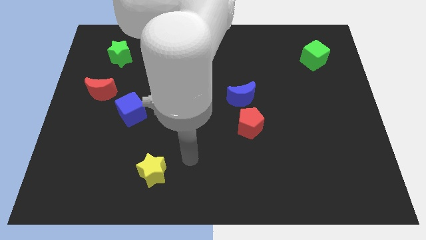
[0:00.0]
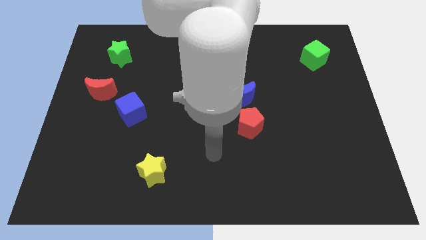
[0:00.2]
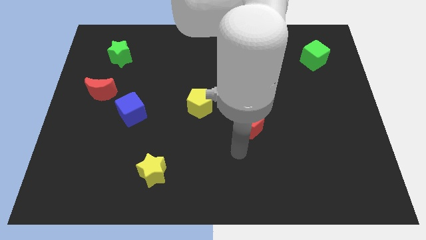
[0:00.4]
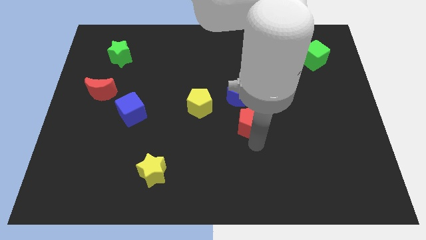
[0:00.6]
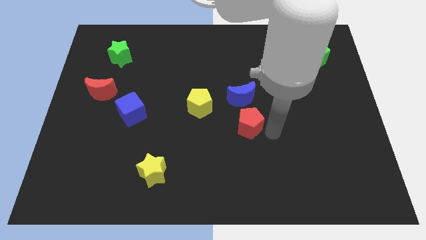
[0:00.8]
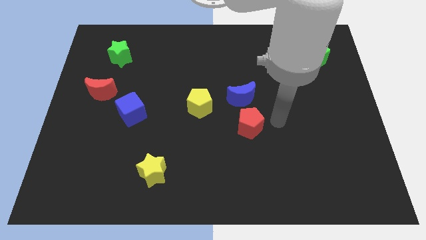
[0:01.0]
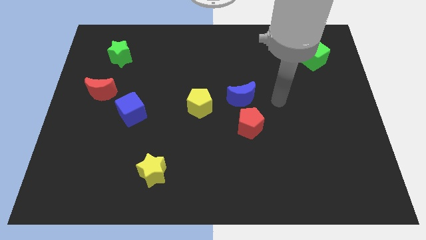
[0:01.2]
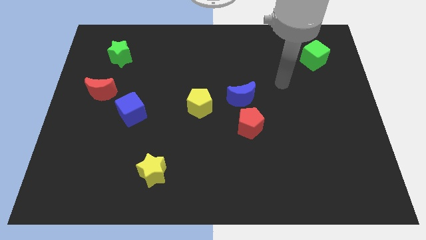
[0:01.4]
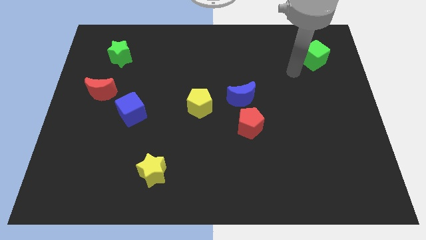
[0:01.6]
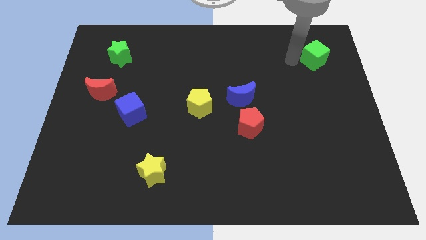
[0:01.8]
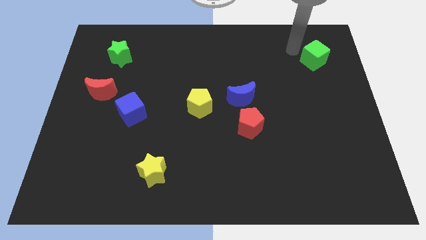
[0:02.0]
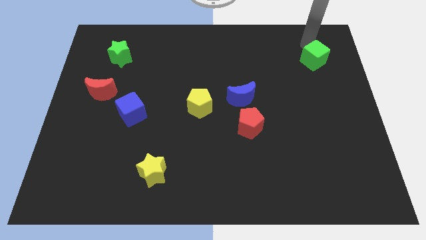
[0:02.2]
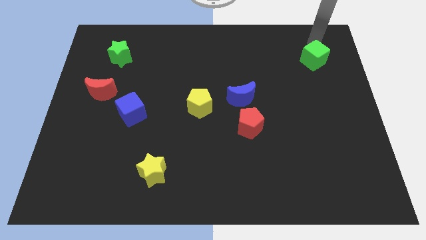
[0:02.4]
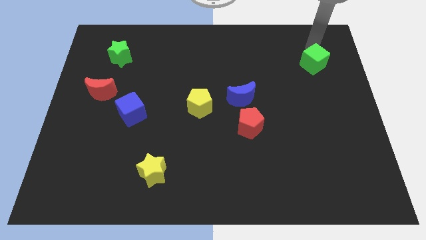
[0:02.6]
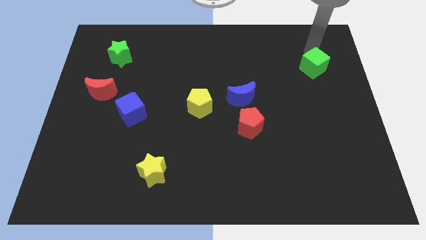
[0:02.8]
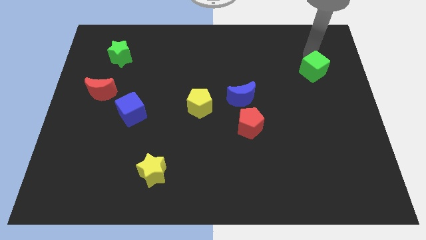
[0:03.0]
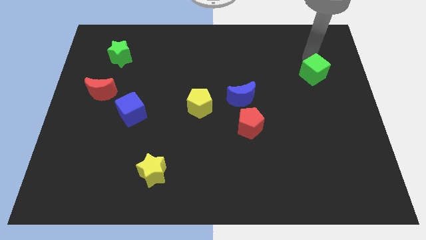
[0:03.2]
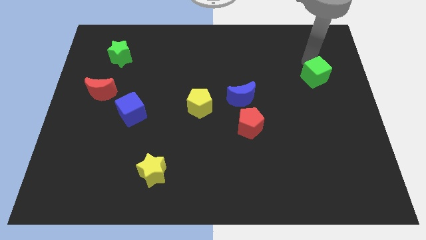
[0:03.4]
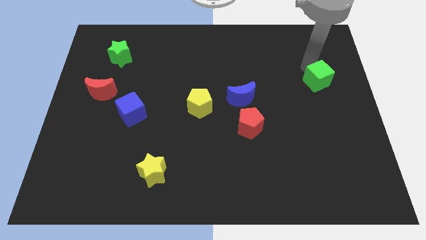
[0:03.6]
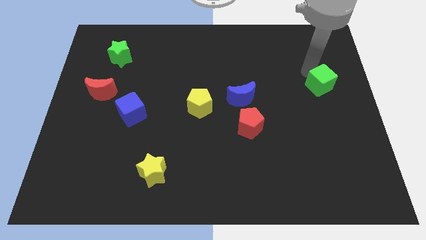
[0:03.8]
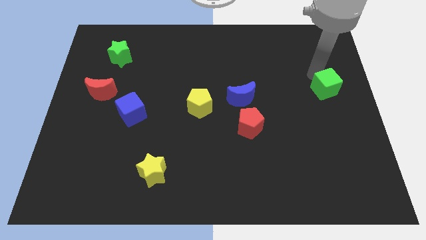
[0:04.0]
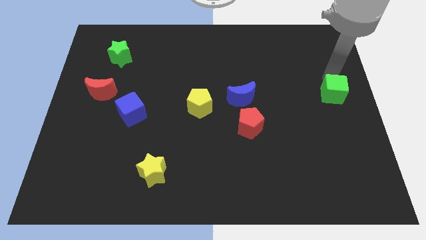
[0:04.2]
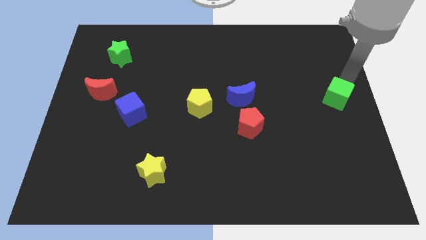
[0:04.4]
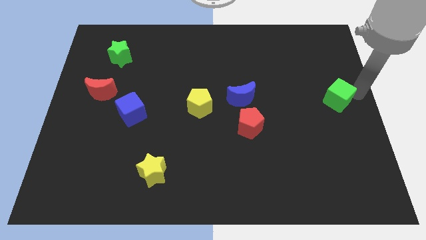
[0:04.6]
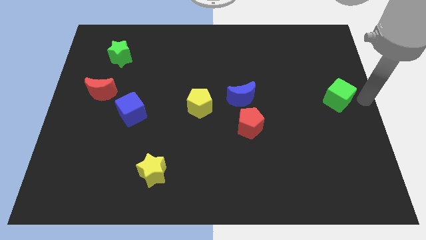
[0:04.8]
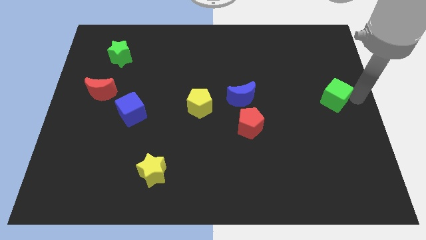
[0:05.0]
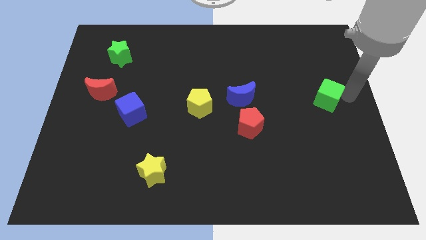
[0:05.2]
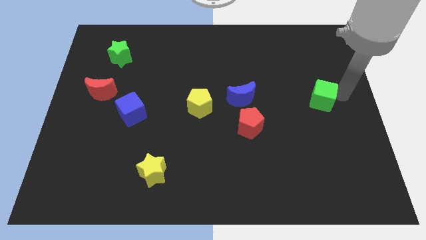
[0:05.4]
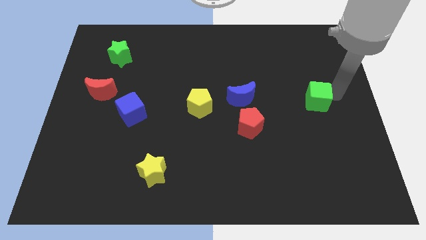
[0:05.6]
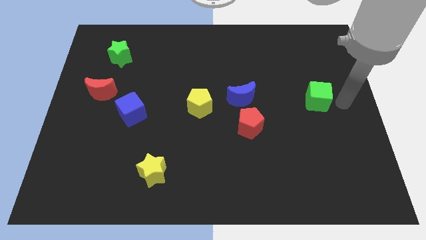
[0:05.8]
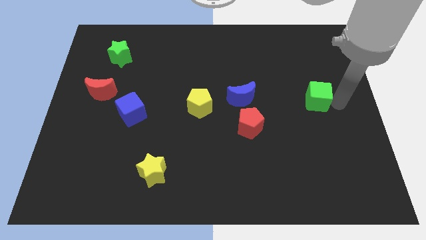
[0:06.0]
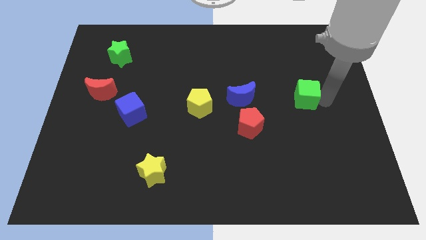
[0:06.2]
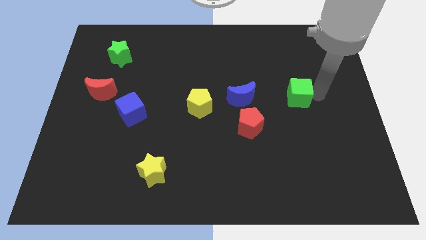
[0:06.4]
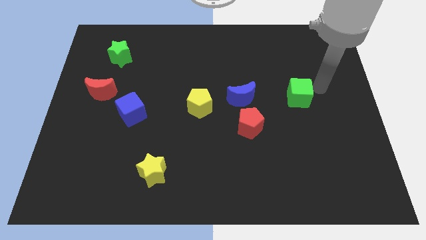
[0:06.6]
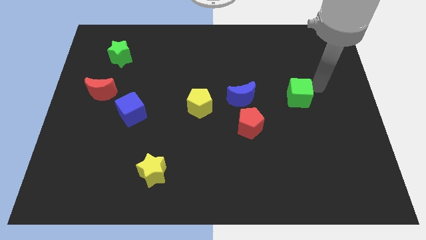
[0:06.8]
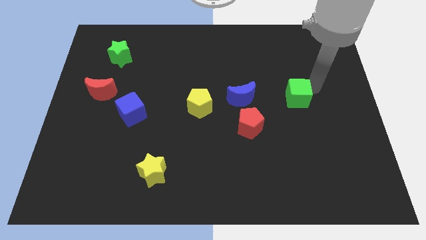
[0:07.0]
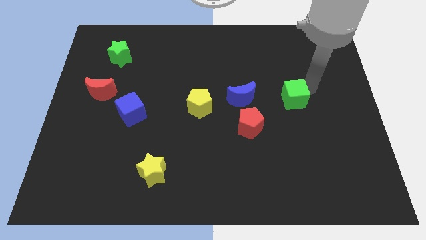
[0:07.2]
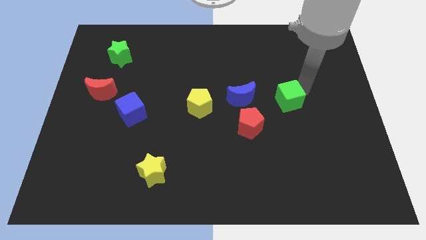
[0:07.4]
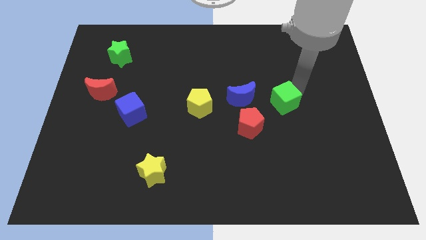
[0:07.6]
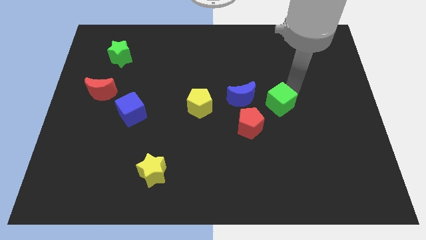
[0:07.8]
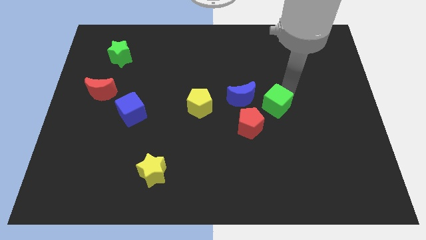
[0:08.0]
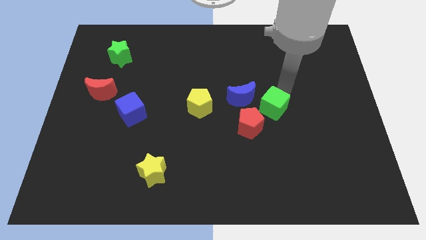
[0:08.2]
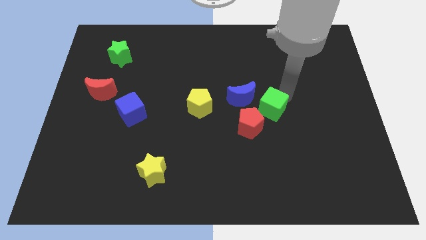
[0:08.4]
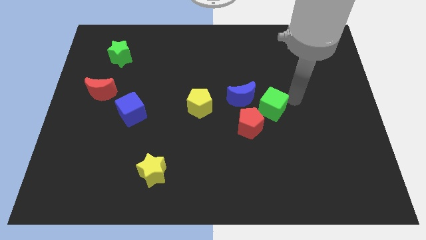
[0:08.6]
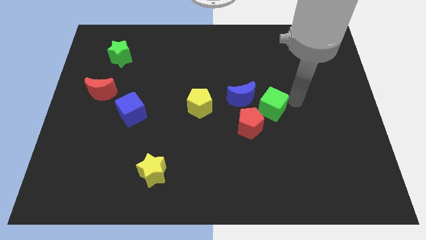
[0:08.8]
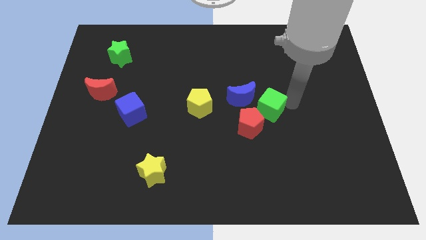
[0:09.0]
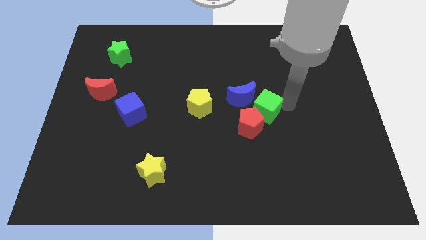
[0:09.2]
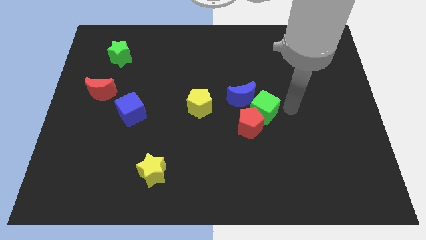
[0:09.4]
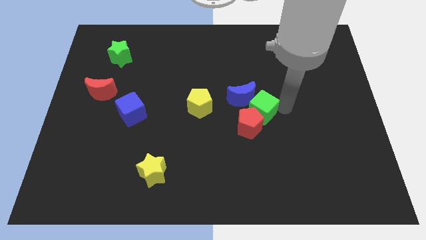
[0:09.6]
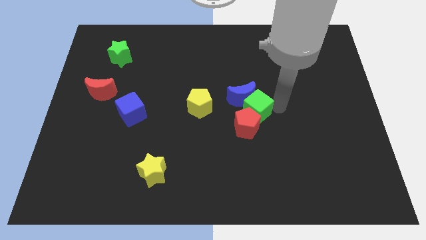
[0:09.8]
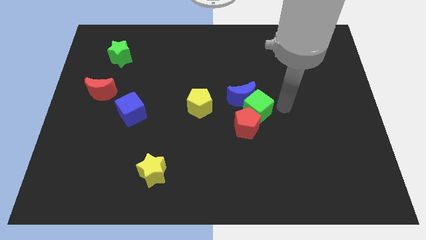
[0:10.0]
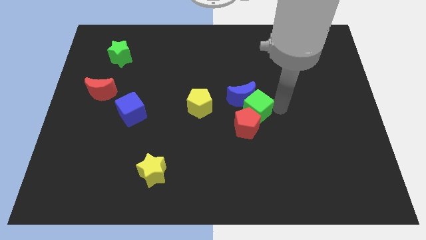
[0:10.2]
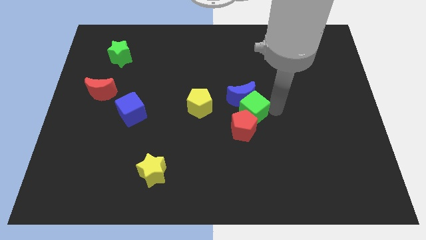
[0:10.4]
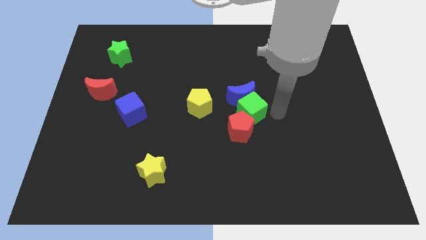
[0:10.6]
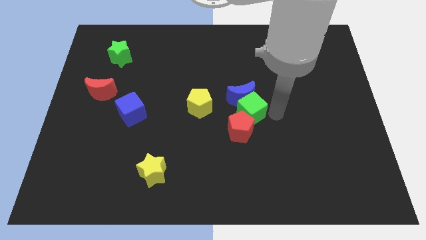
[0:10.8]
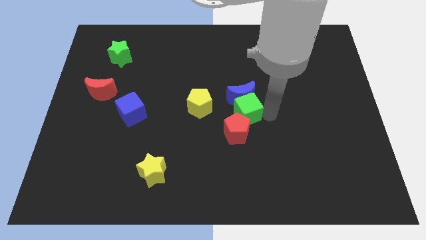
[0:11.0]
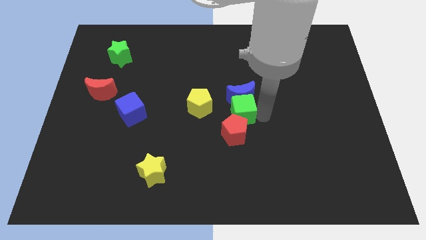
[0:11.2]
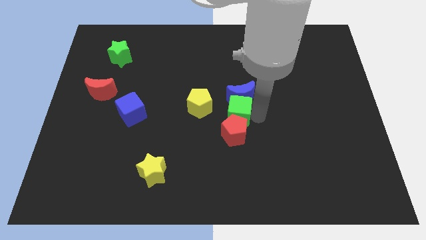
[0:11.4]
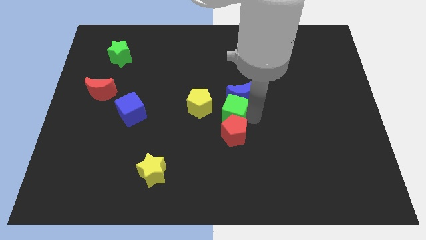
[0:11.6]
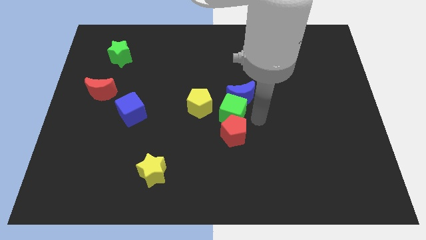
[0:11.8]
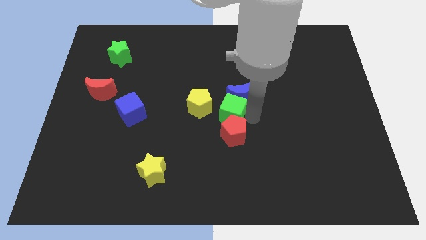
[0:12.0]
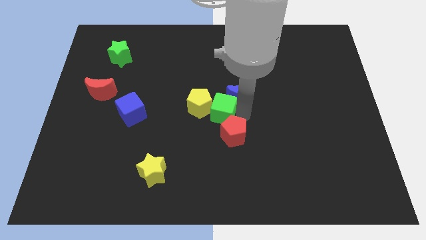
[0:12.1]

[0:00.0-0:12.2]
push the green cube to the yellow pentagon

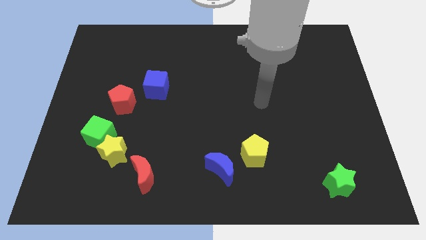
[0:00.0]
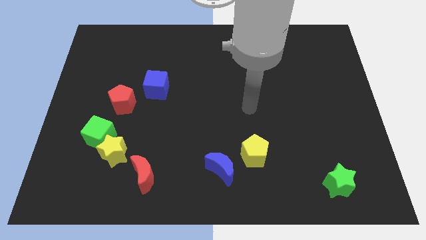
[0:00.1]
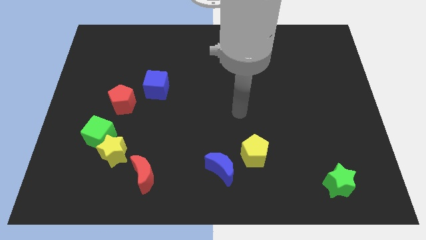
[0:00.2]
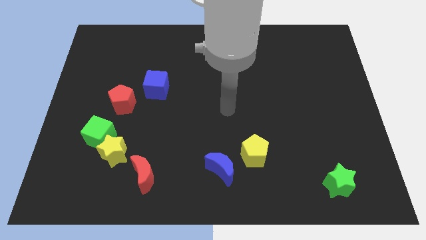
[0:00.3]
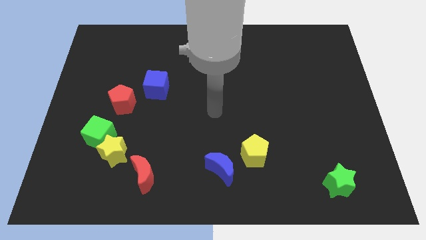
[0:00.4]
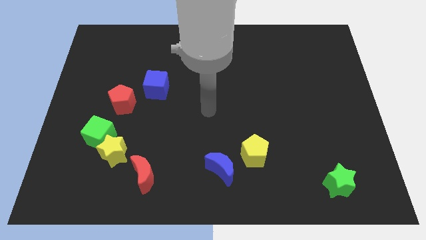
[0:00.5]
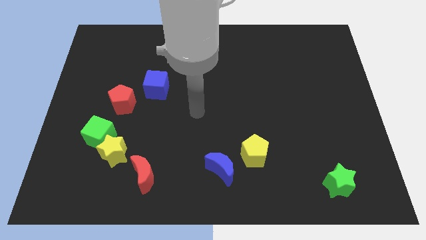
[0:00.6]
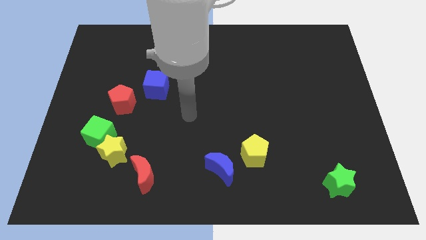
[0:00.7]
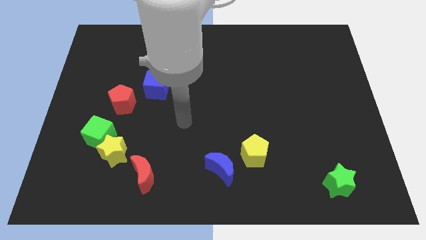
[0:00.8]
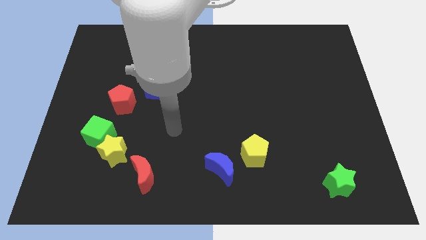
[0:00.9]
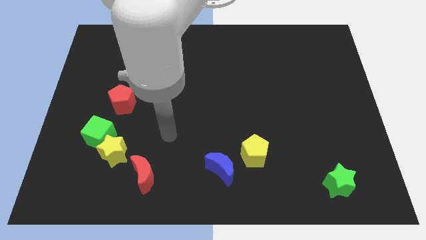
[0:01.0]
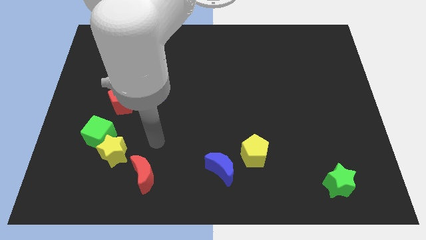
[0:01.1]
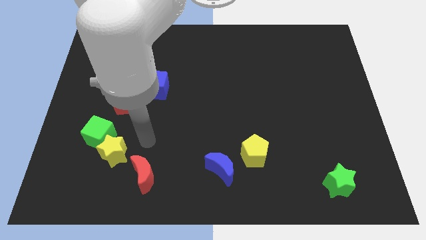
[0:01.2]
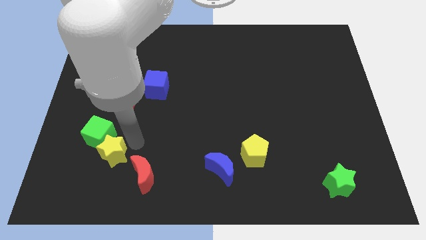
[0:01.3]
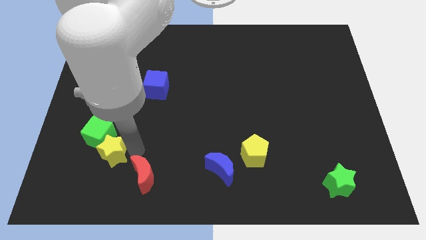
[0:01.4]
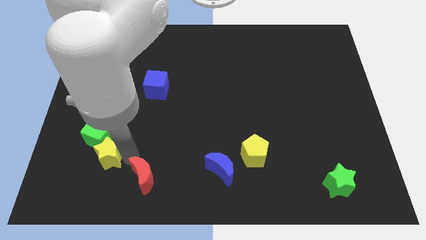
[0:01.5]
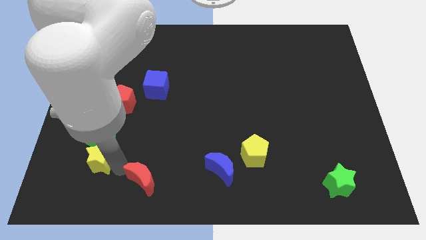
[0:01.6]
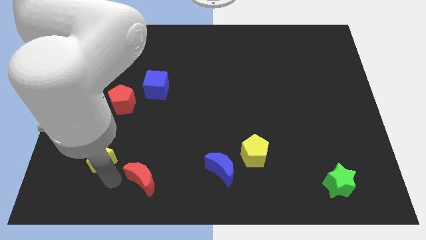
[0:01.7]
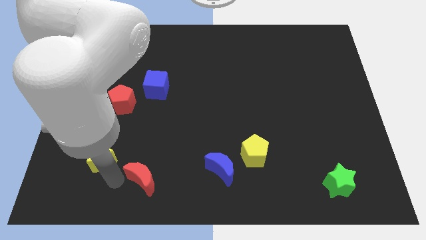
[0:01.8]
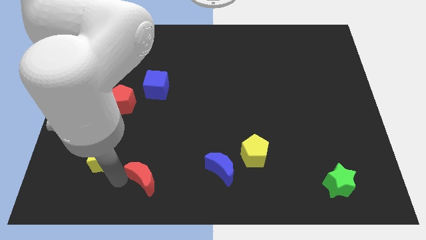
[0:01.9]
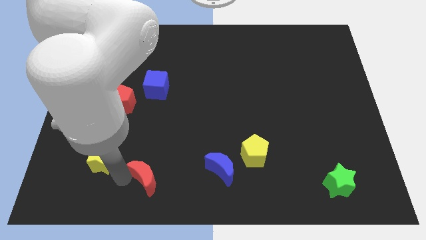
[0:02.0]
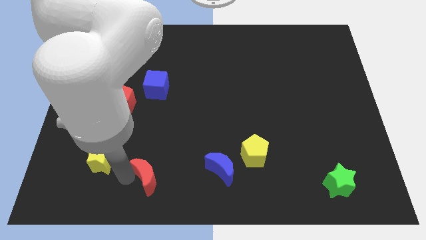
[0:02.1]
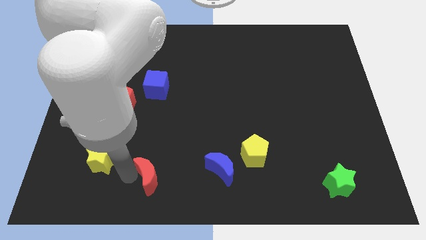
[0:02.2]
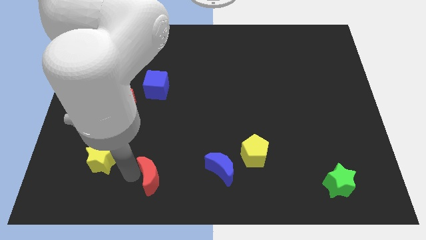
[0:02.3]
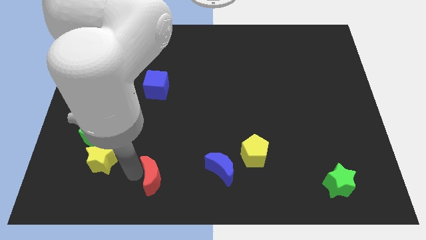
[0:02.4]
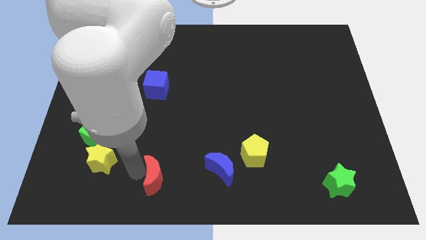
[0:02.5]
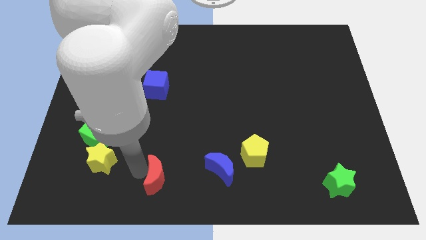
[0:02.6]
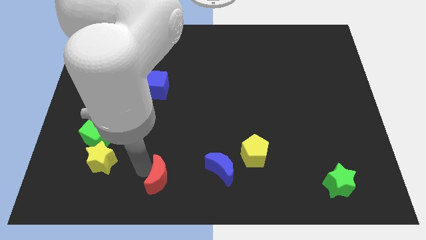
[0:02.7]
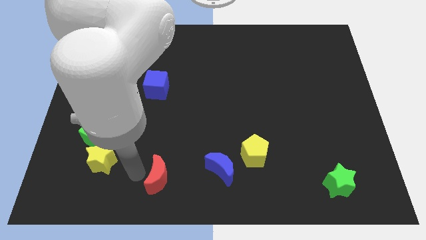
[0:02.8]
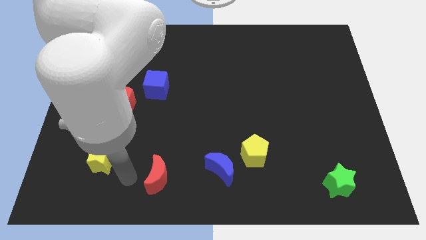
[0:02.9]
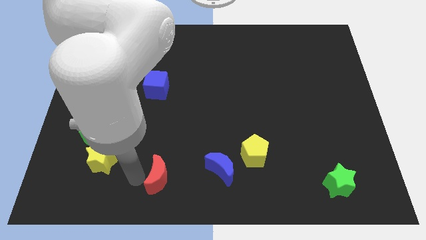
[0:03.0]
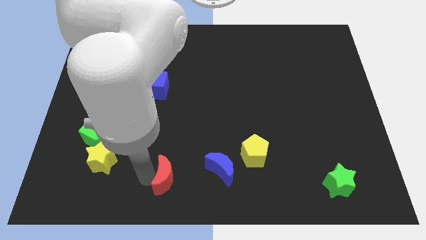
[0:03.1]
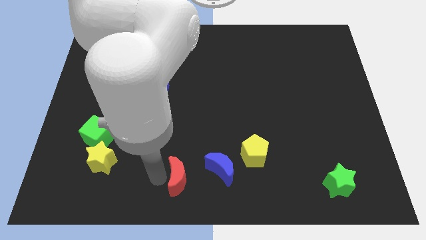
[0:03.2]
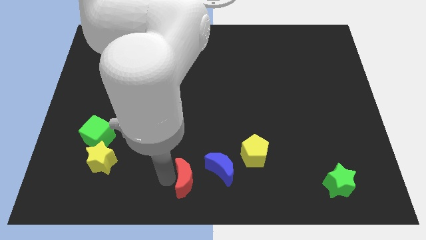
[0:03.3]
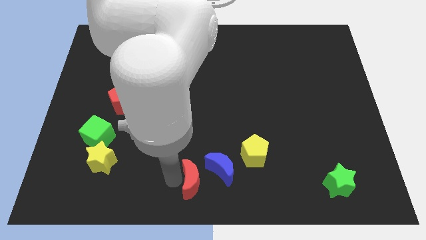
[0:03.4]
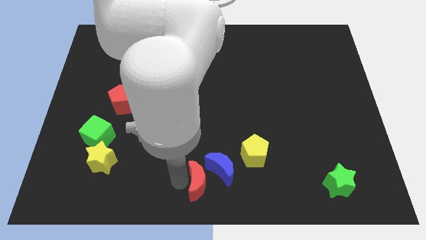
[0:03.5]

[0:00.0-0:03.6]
push the red moon towards the blue moon
